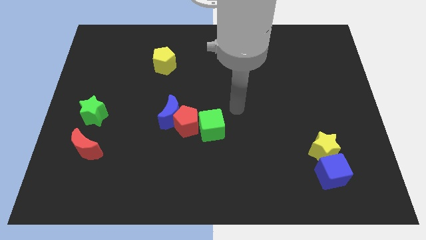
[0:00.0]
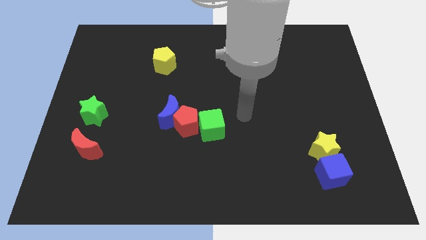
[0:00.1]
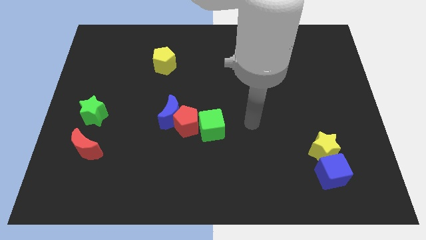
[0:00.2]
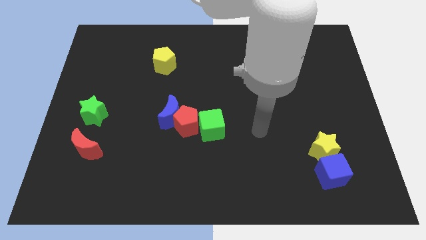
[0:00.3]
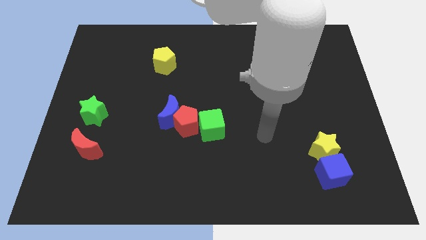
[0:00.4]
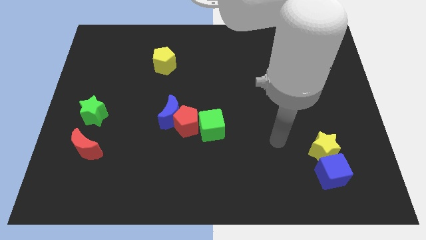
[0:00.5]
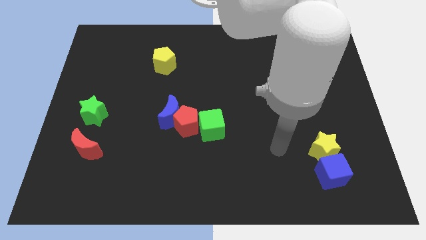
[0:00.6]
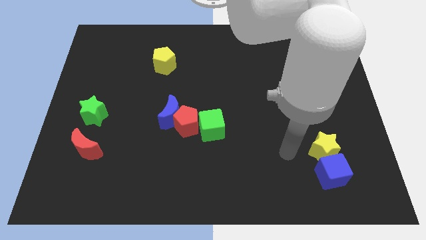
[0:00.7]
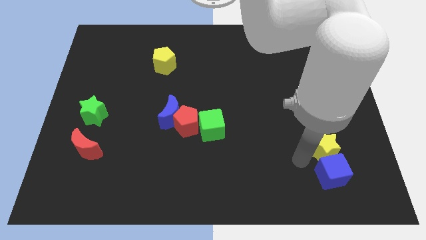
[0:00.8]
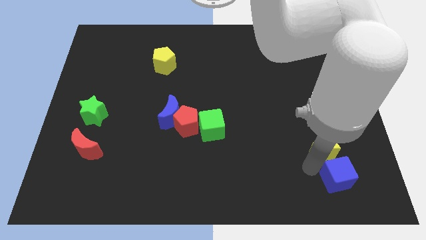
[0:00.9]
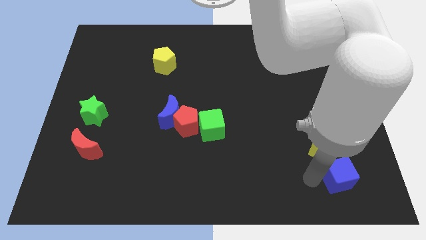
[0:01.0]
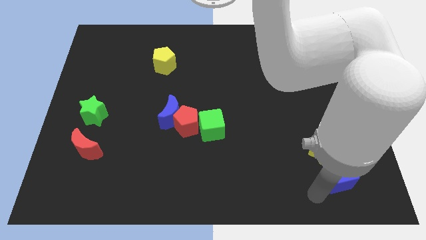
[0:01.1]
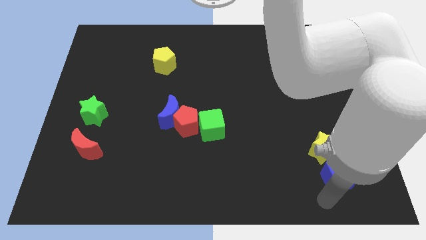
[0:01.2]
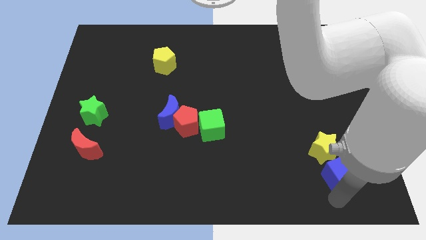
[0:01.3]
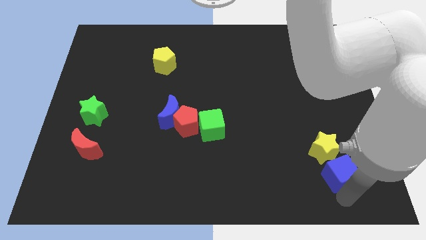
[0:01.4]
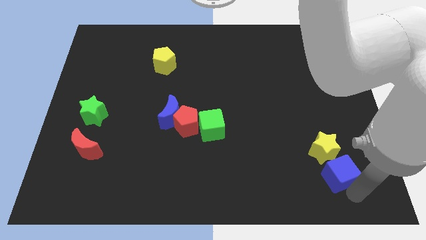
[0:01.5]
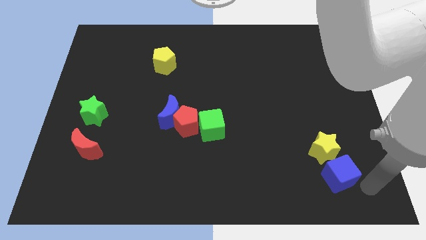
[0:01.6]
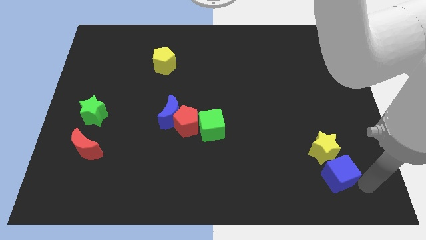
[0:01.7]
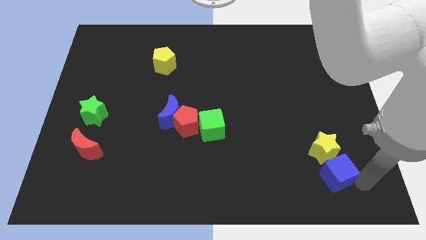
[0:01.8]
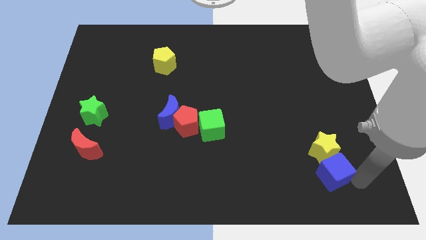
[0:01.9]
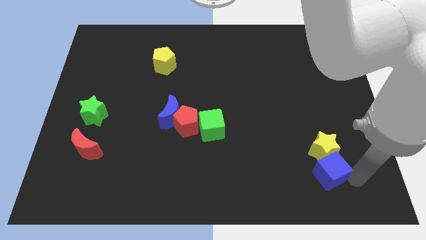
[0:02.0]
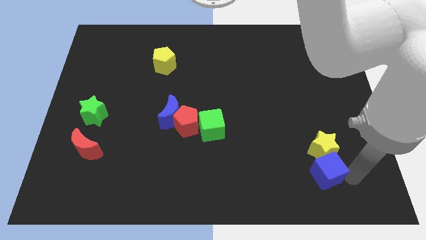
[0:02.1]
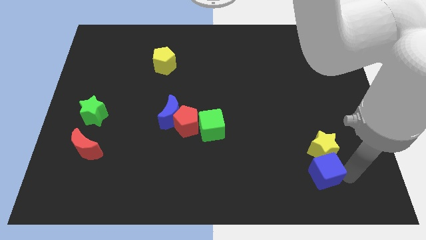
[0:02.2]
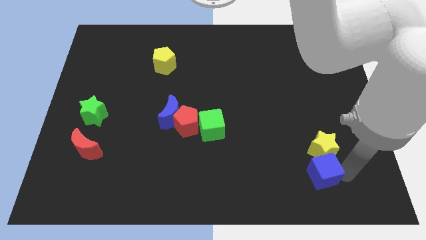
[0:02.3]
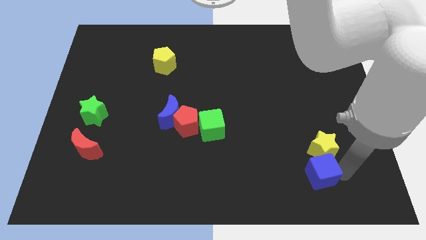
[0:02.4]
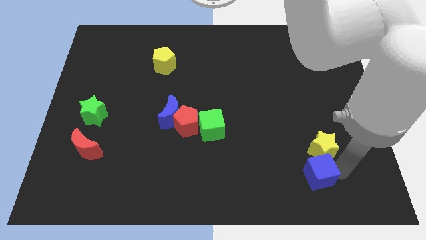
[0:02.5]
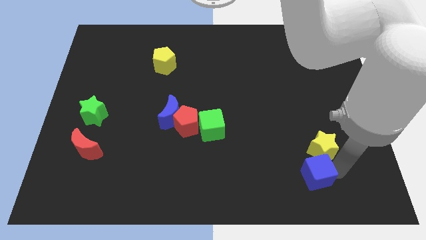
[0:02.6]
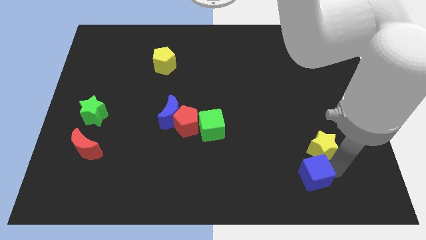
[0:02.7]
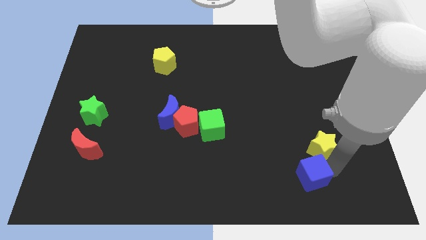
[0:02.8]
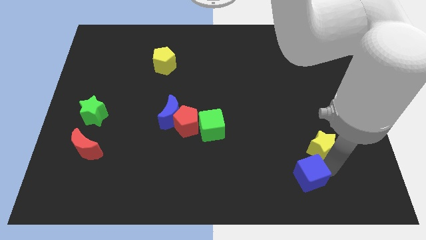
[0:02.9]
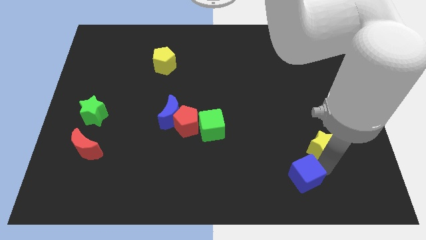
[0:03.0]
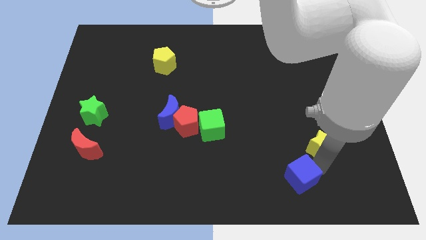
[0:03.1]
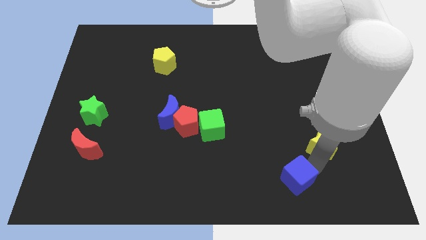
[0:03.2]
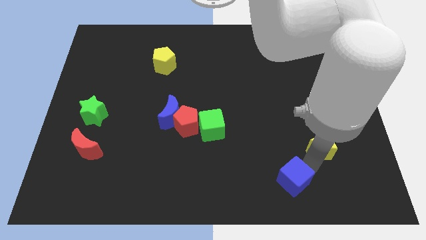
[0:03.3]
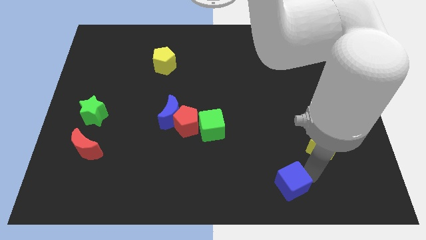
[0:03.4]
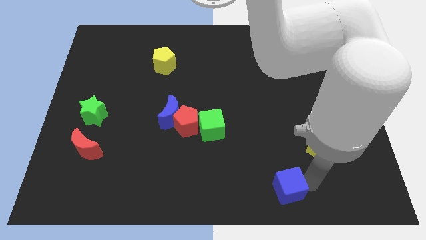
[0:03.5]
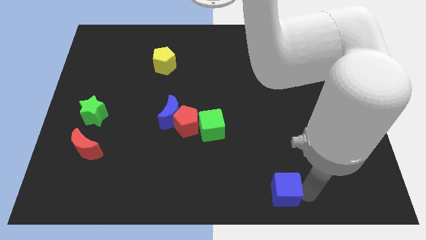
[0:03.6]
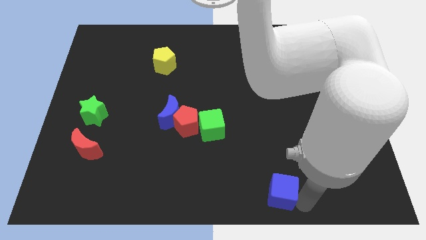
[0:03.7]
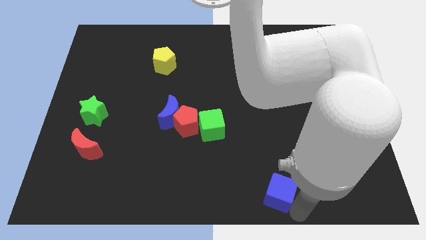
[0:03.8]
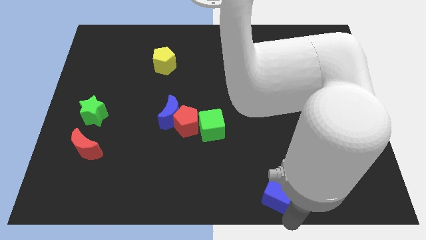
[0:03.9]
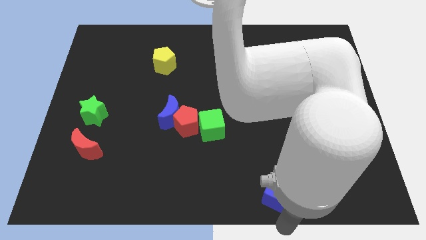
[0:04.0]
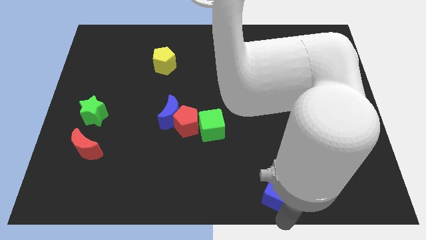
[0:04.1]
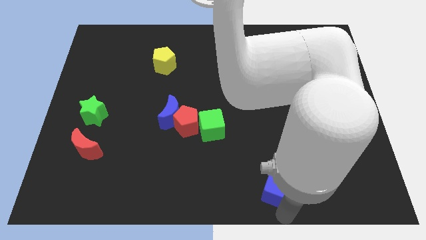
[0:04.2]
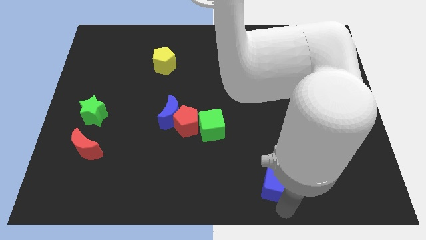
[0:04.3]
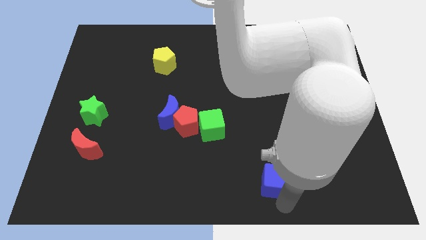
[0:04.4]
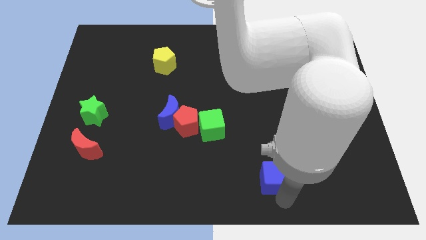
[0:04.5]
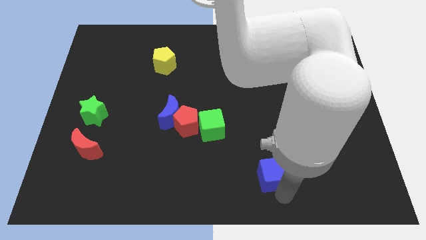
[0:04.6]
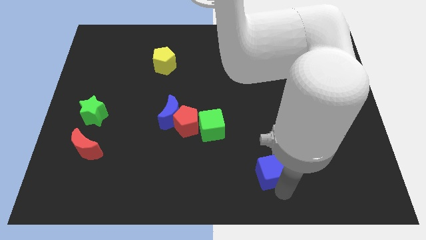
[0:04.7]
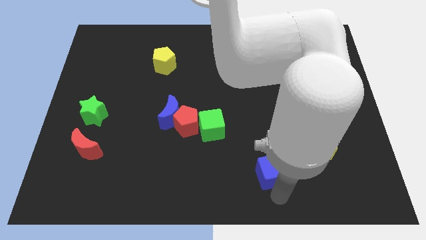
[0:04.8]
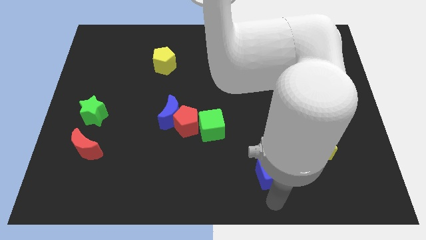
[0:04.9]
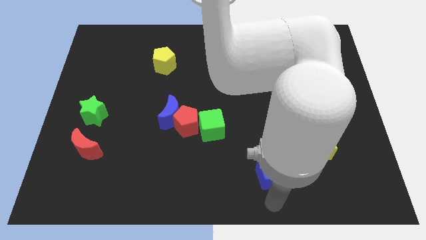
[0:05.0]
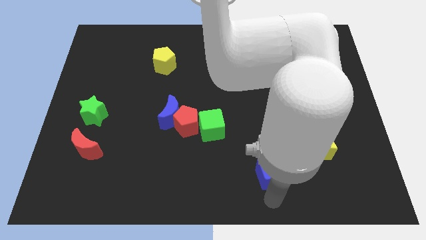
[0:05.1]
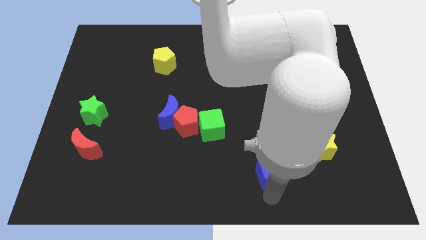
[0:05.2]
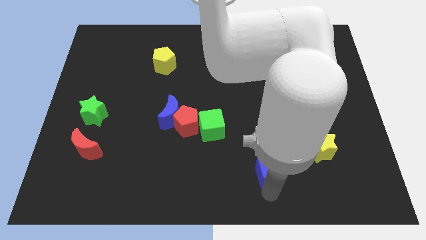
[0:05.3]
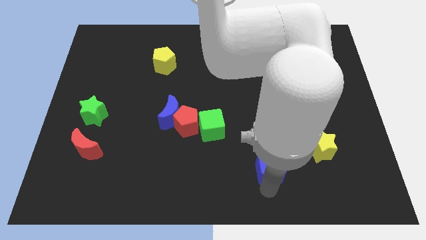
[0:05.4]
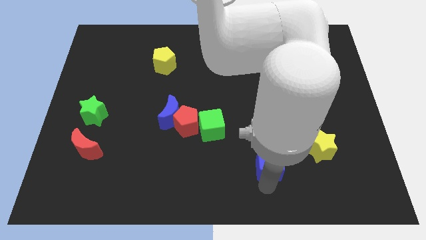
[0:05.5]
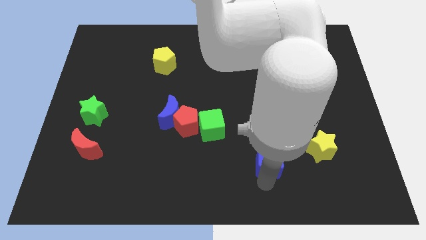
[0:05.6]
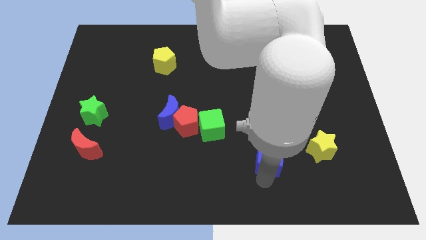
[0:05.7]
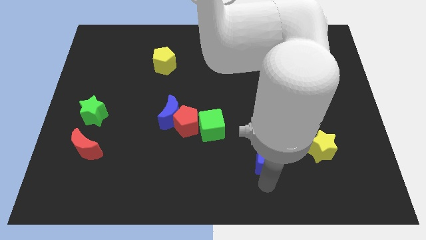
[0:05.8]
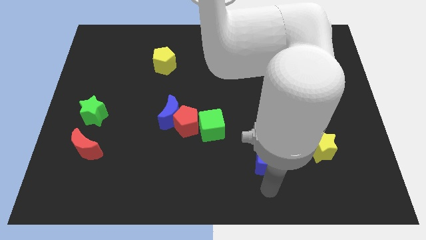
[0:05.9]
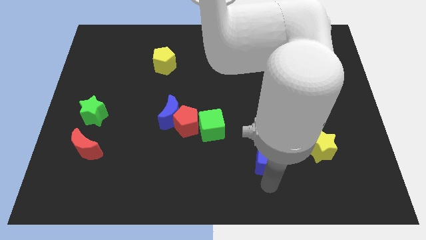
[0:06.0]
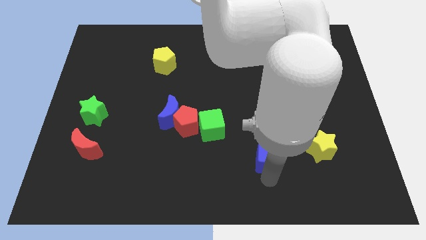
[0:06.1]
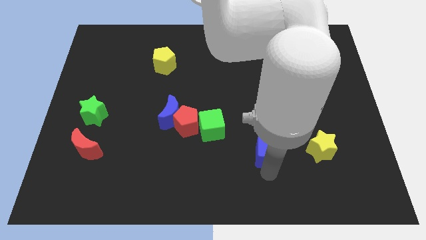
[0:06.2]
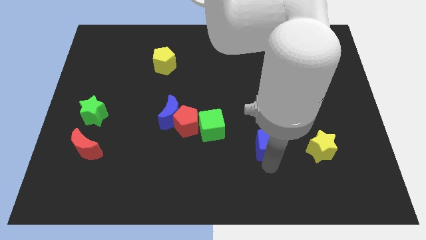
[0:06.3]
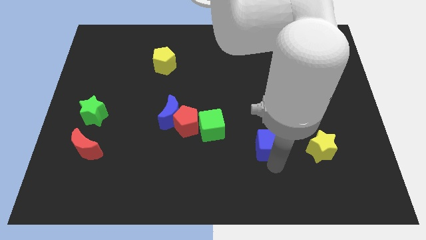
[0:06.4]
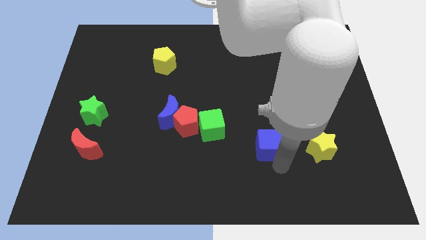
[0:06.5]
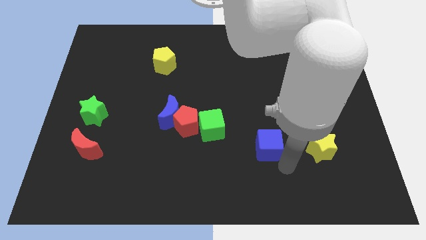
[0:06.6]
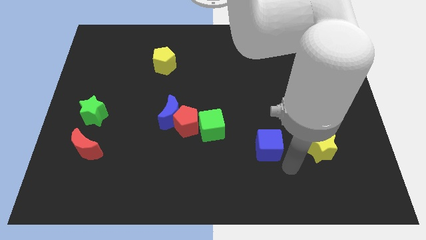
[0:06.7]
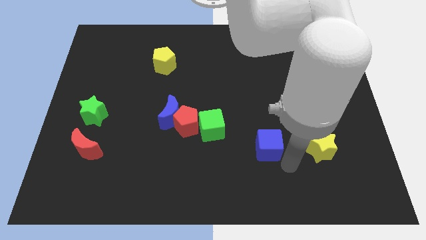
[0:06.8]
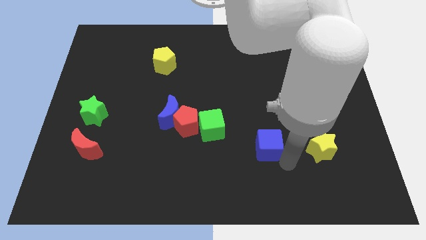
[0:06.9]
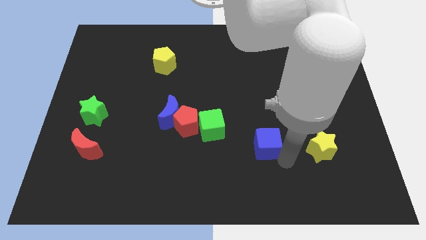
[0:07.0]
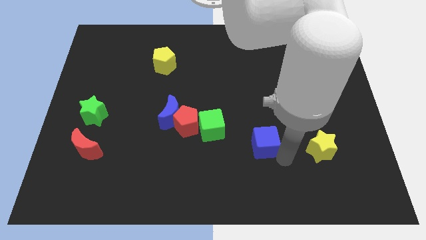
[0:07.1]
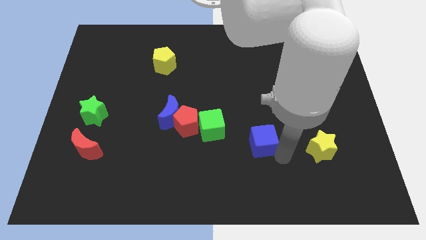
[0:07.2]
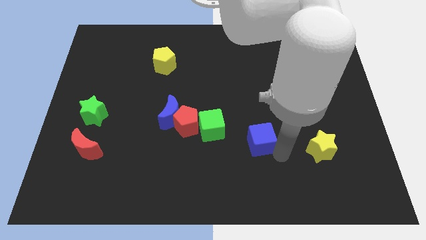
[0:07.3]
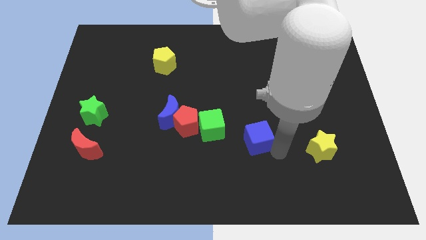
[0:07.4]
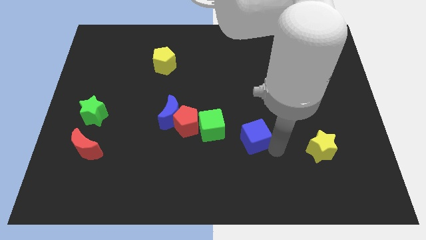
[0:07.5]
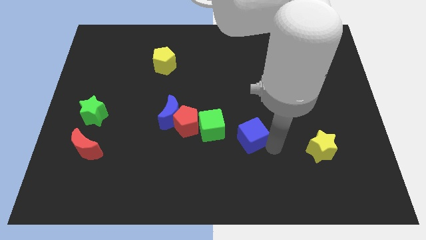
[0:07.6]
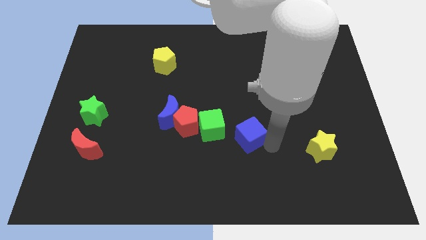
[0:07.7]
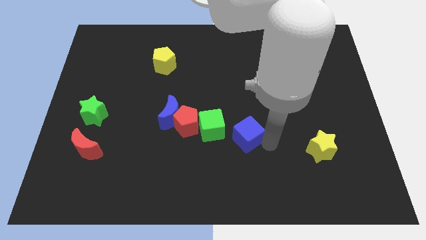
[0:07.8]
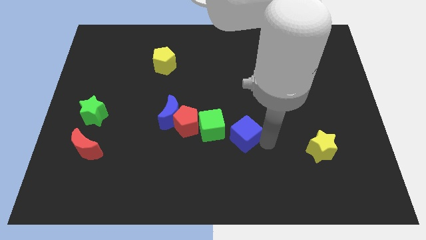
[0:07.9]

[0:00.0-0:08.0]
push the blue cube to the middle of the board
